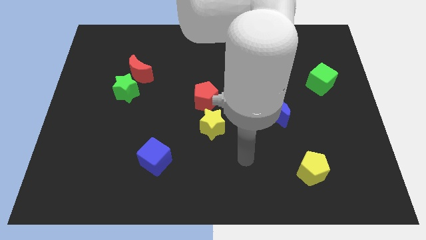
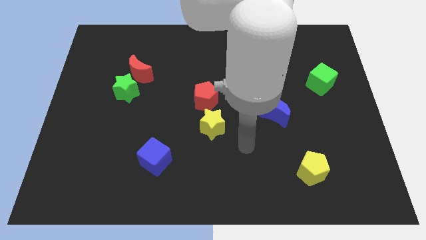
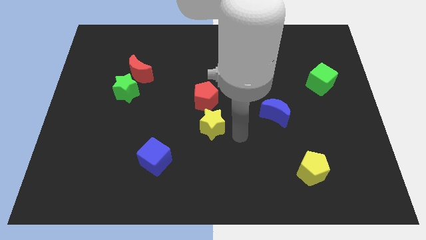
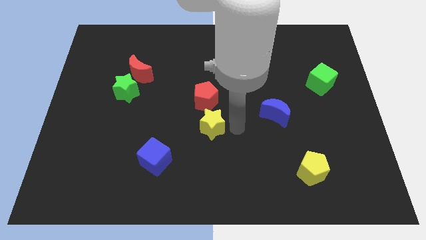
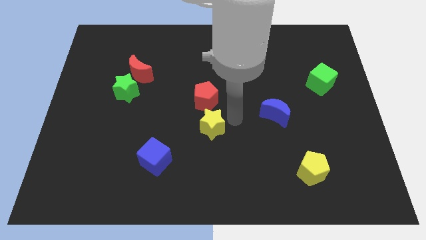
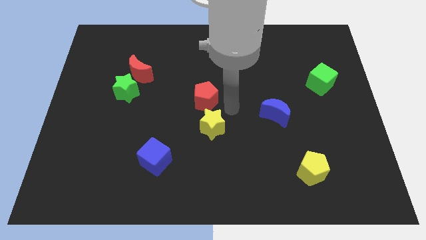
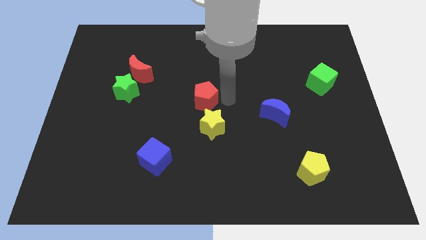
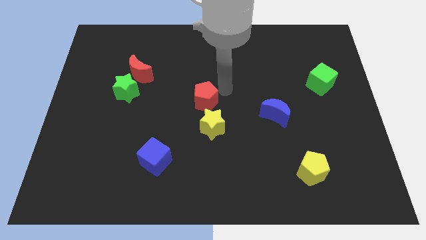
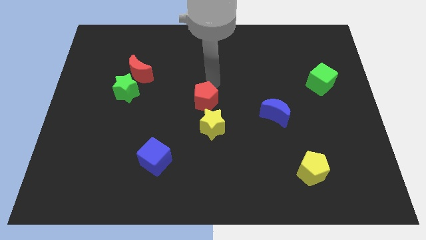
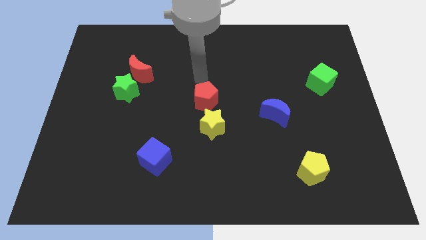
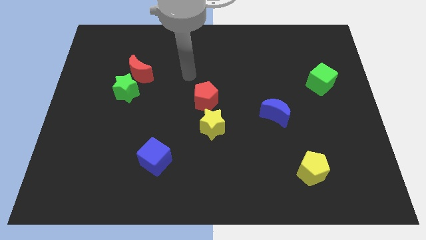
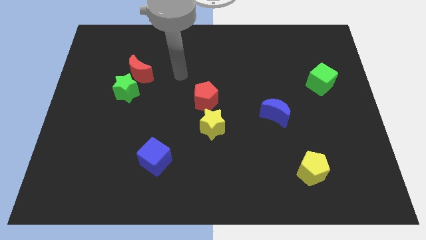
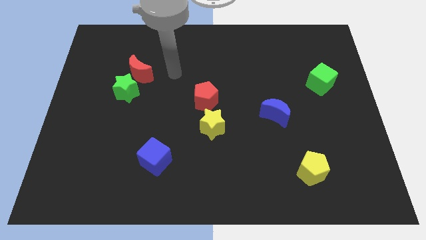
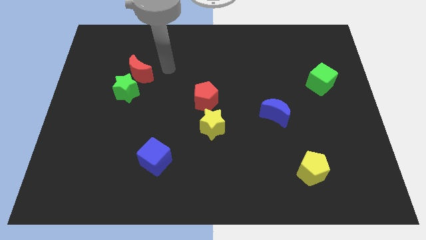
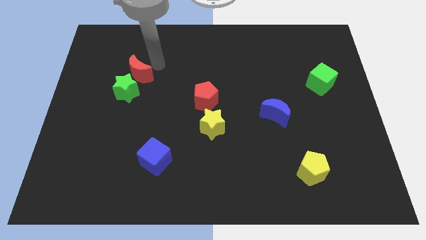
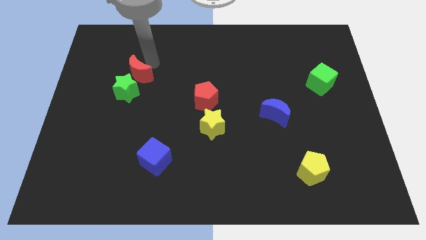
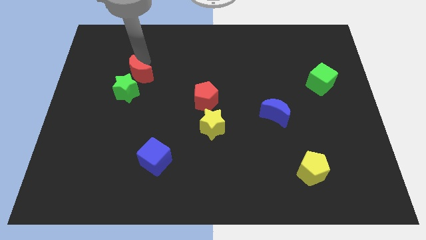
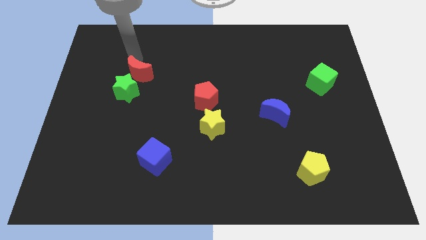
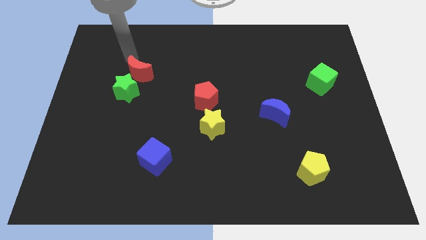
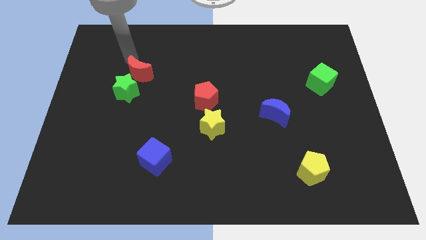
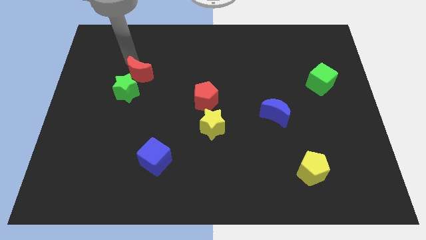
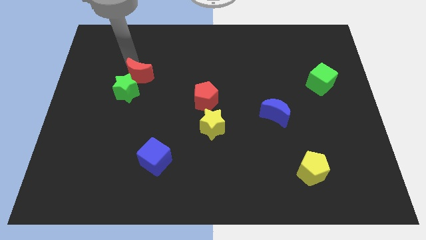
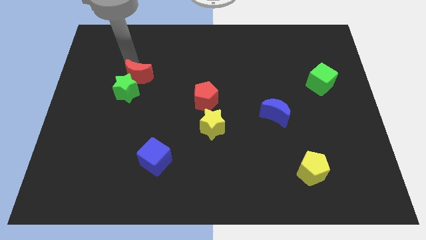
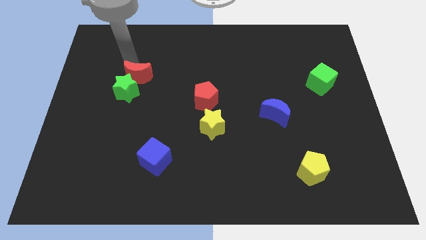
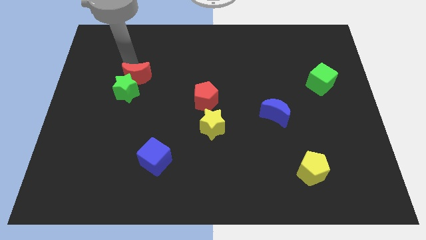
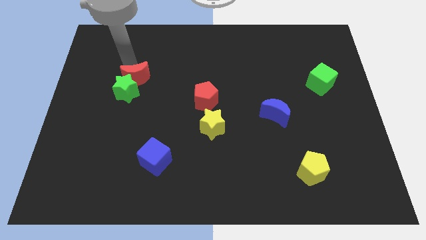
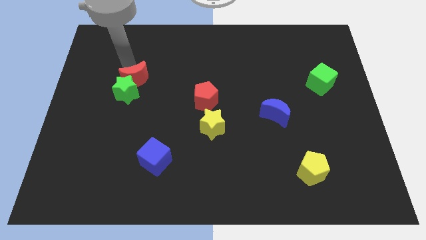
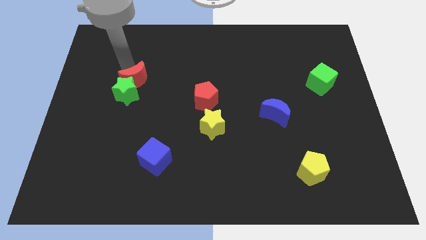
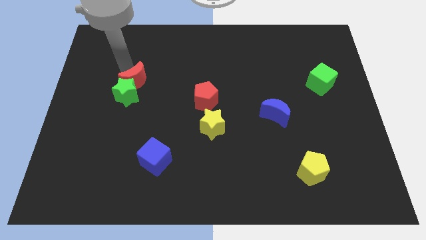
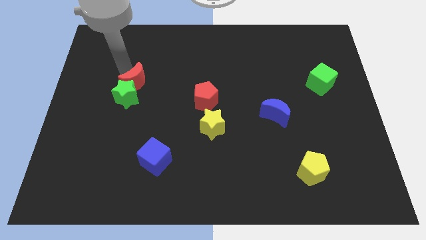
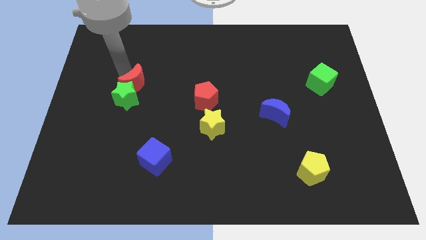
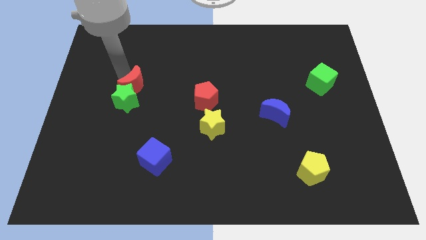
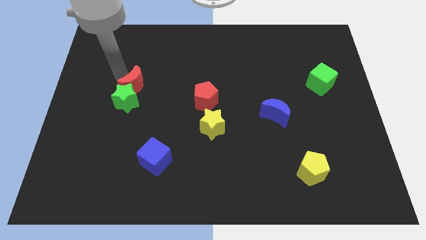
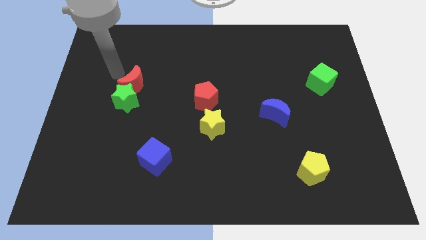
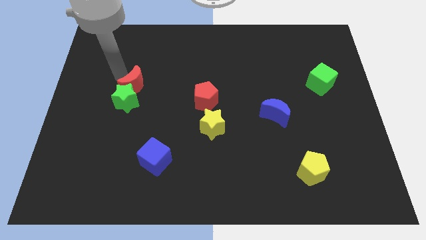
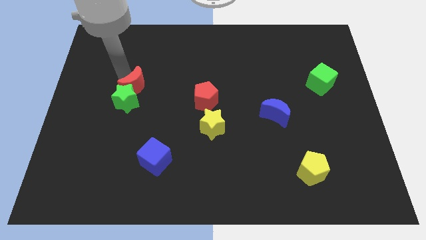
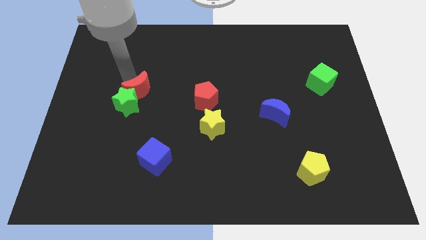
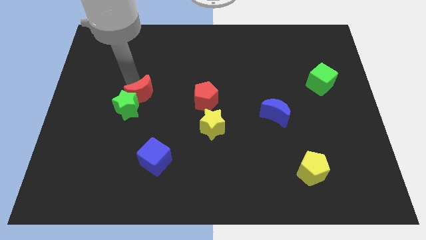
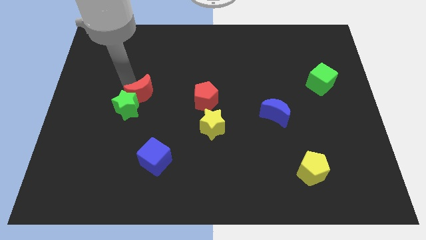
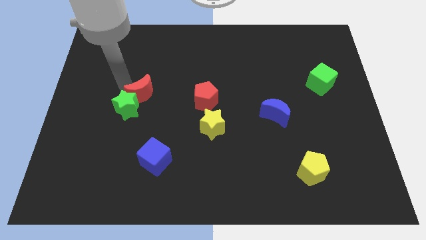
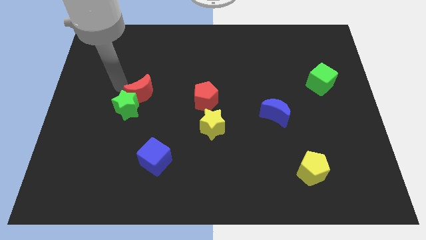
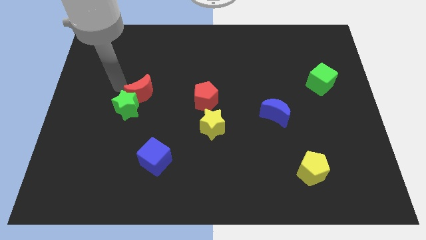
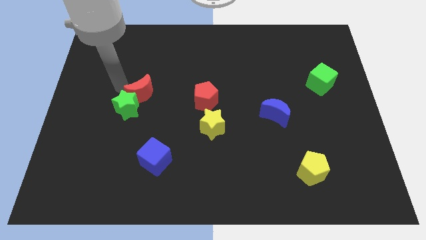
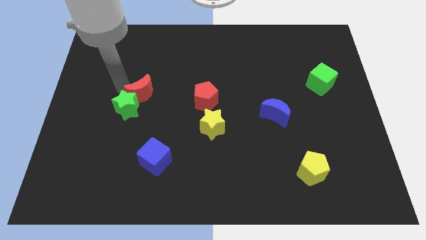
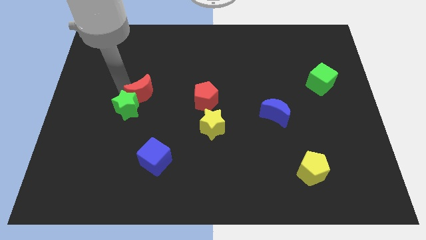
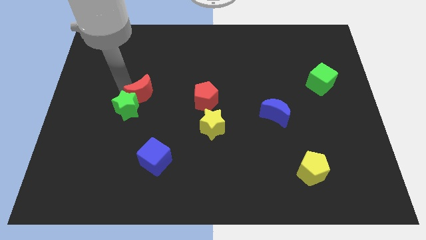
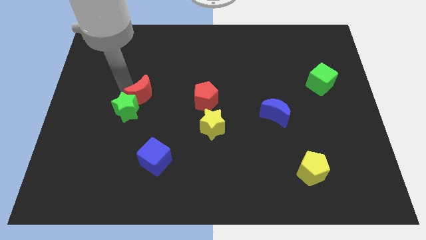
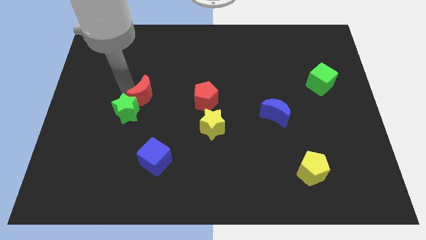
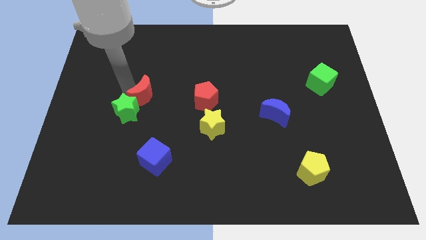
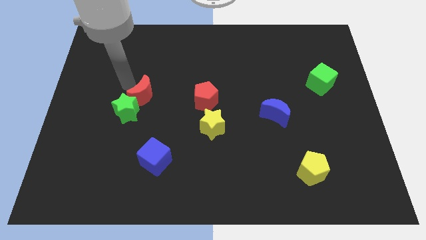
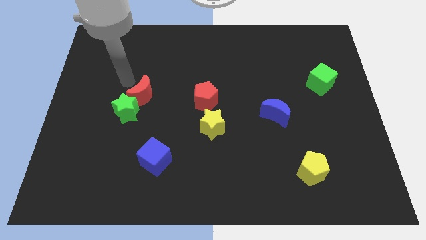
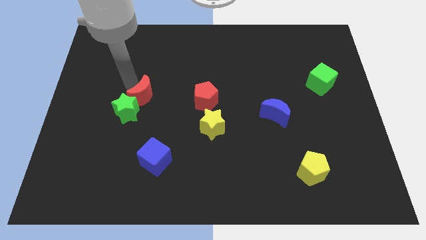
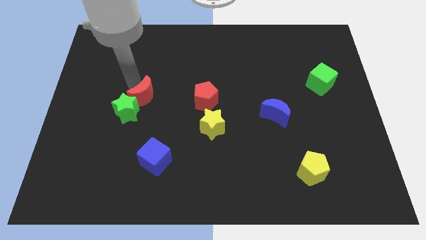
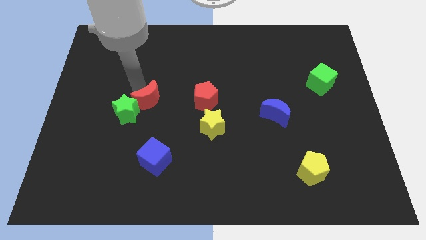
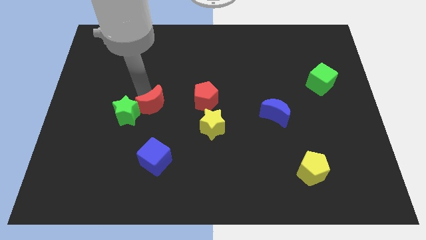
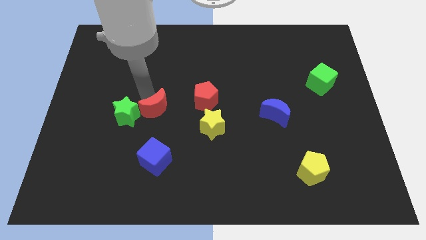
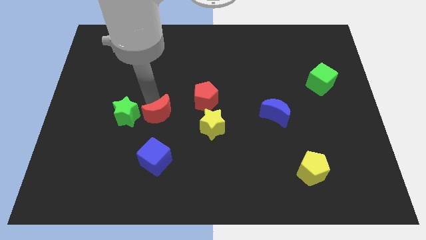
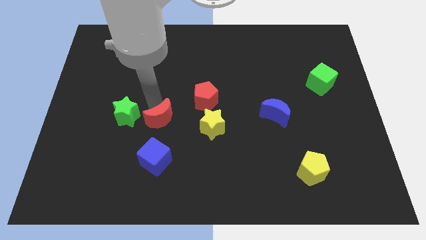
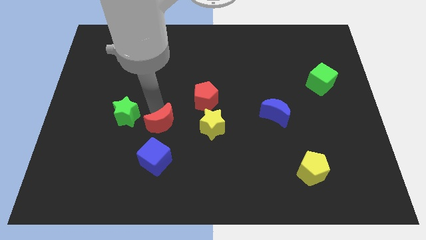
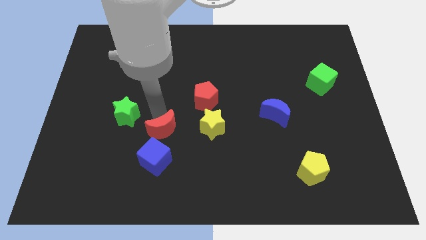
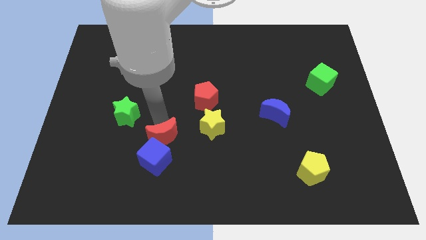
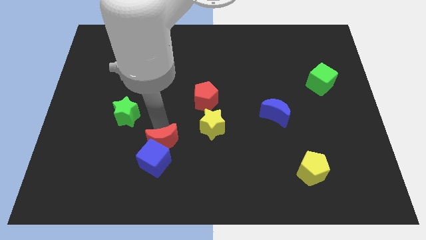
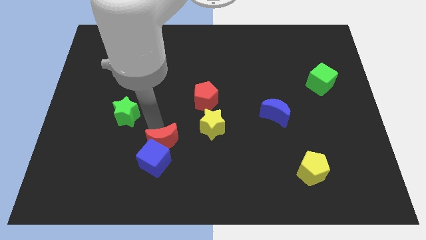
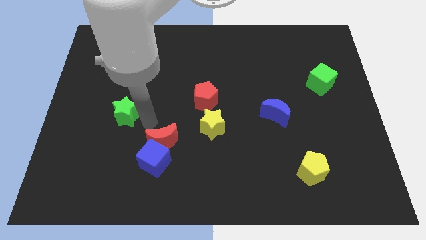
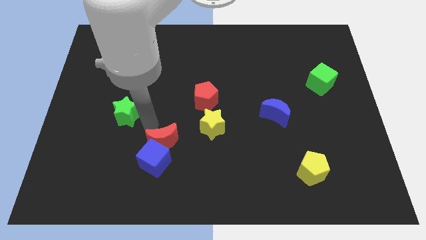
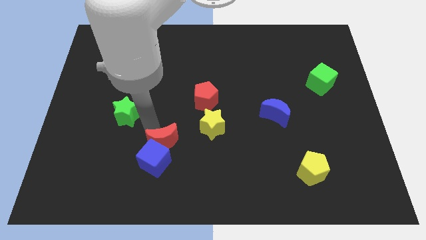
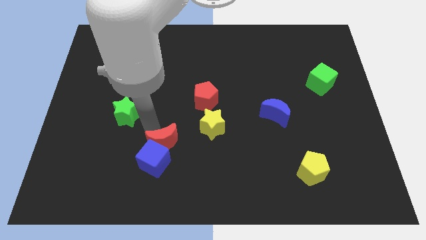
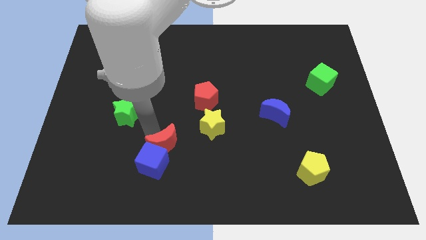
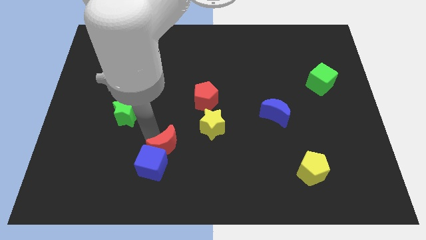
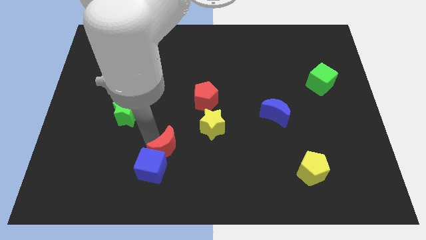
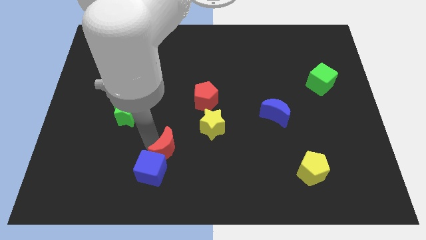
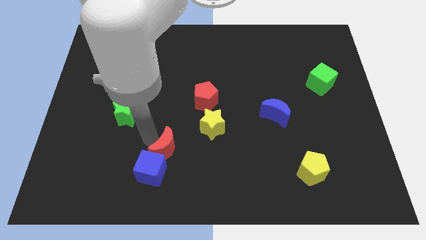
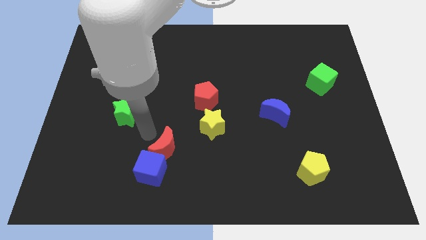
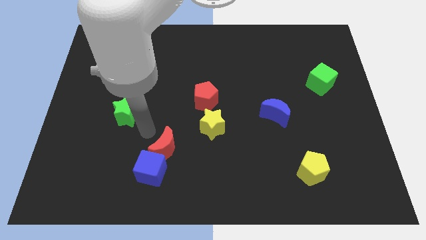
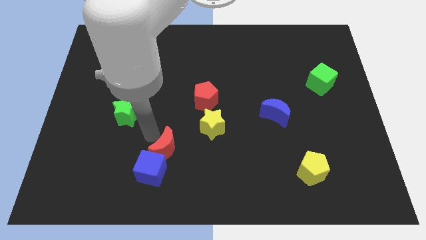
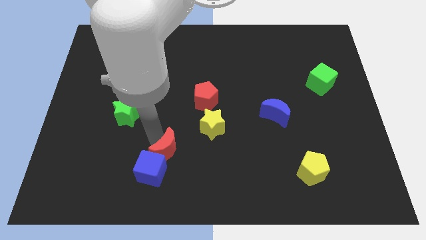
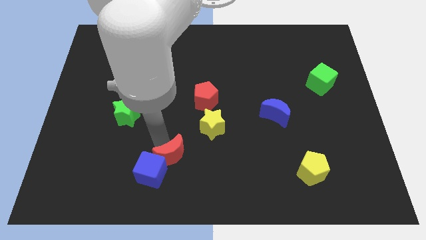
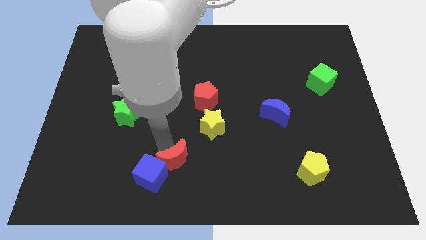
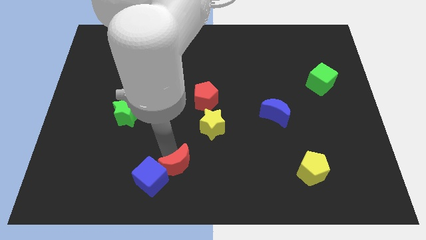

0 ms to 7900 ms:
put the red moon to the bottom
